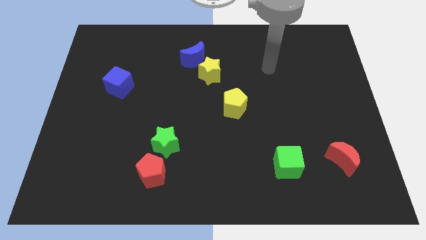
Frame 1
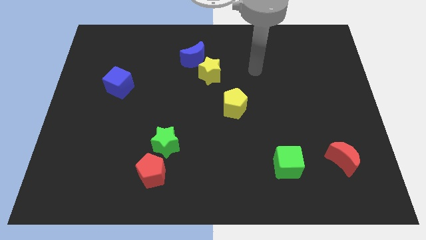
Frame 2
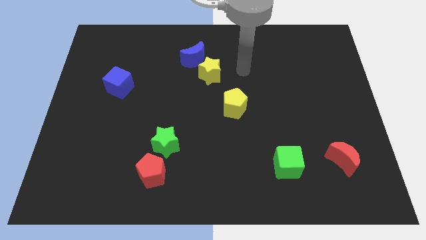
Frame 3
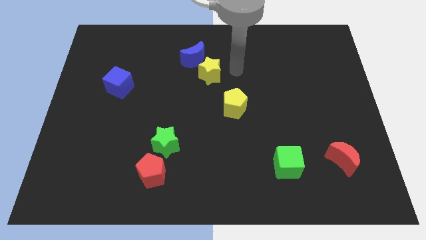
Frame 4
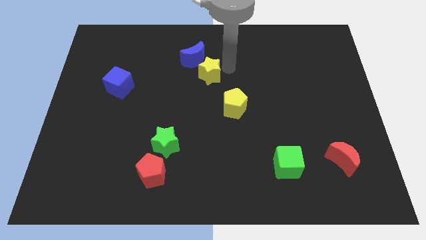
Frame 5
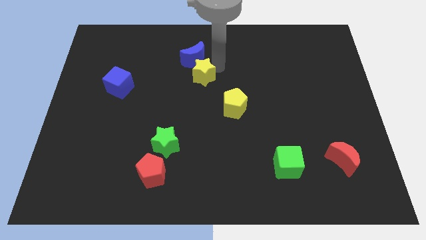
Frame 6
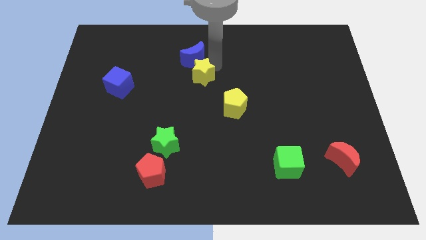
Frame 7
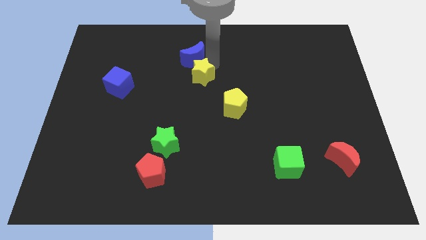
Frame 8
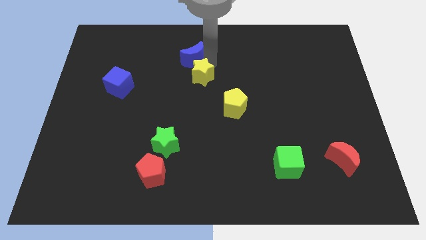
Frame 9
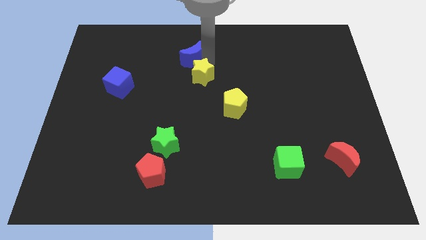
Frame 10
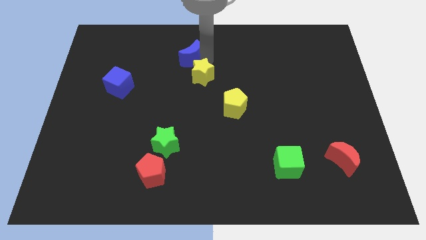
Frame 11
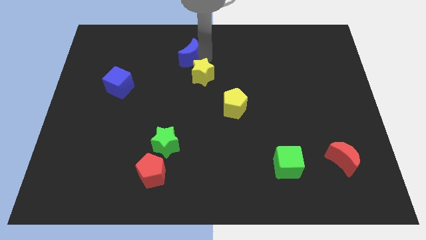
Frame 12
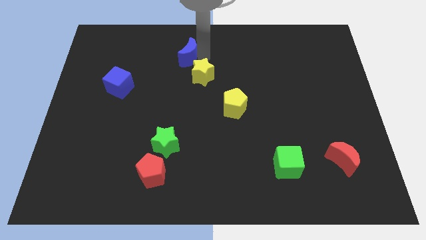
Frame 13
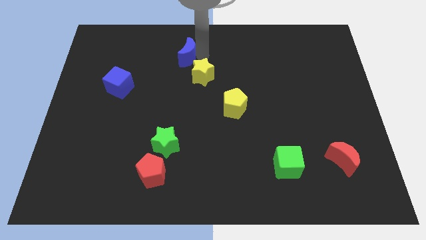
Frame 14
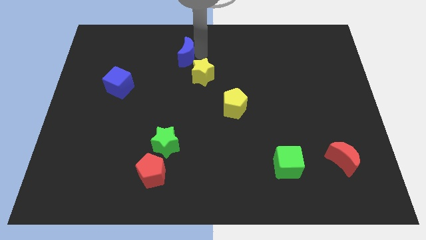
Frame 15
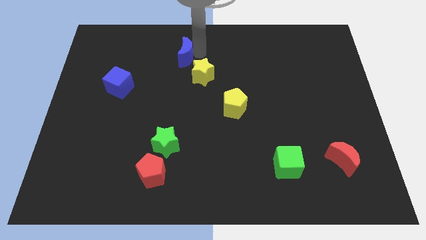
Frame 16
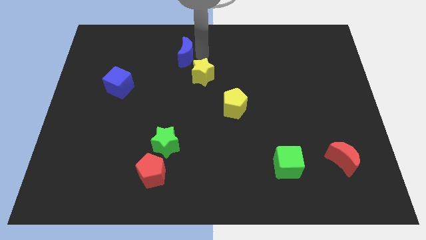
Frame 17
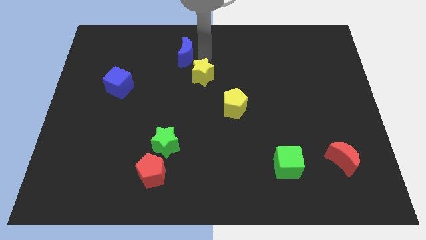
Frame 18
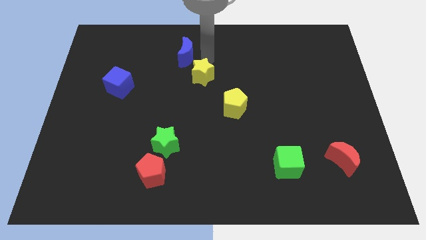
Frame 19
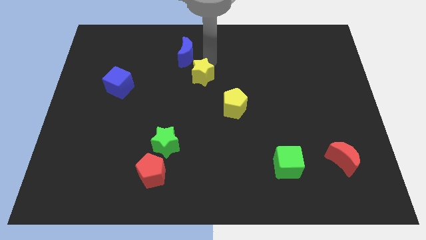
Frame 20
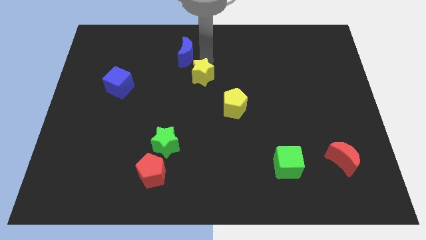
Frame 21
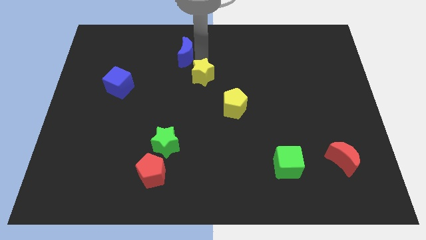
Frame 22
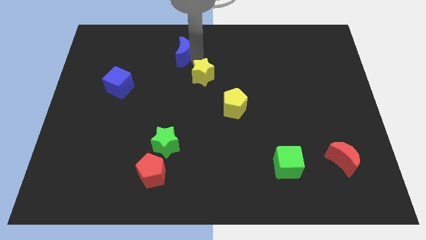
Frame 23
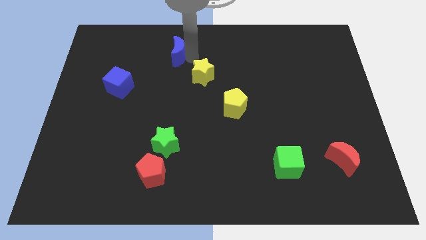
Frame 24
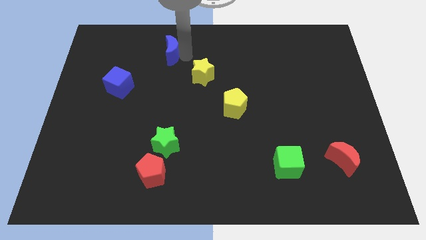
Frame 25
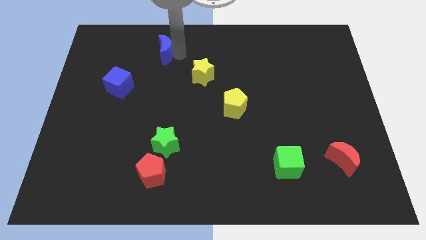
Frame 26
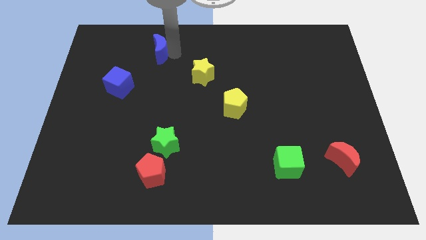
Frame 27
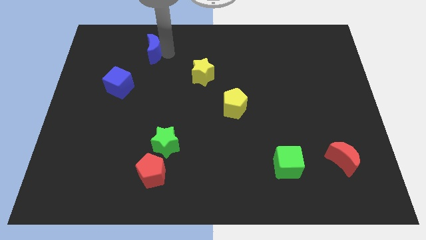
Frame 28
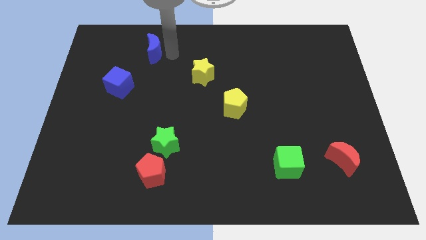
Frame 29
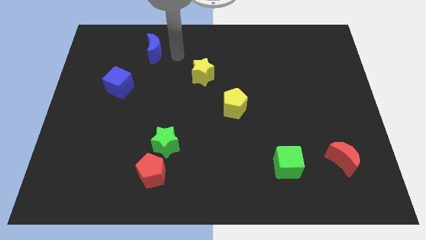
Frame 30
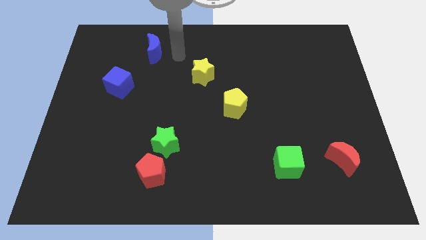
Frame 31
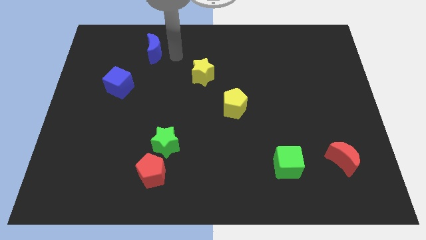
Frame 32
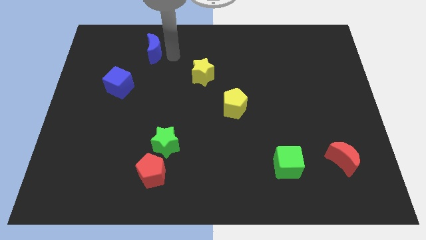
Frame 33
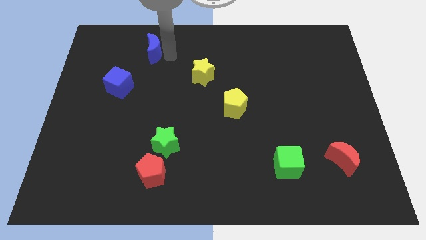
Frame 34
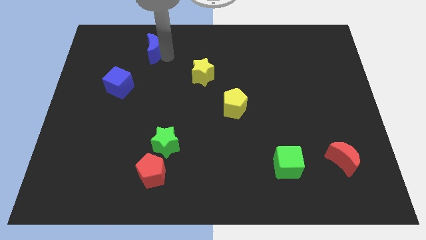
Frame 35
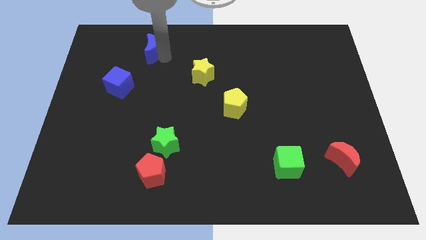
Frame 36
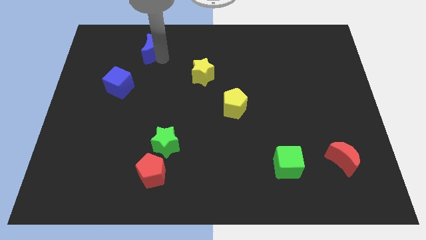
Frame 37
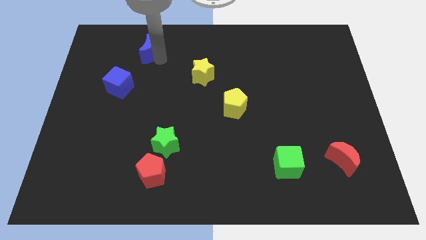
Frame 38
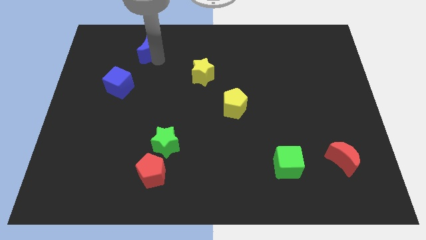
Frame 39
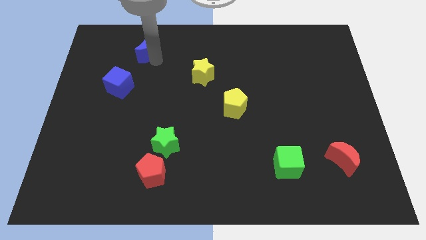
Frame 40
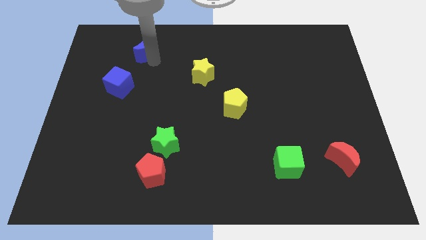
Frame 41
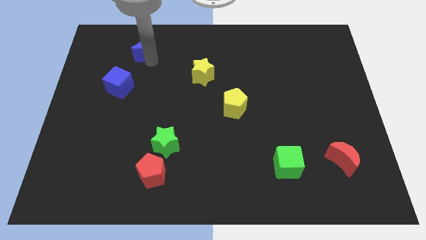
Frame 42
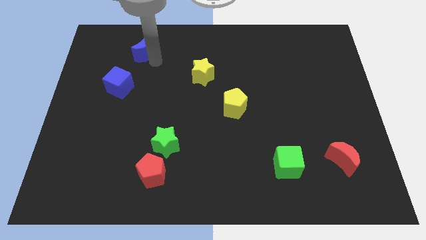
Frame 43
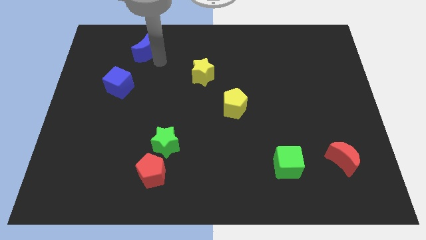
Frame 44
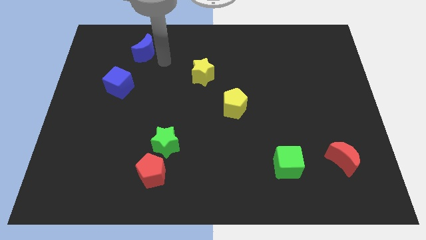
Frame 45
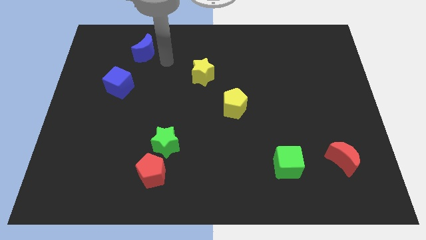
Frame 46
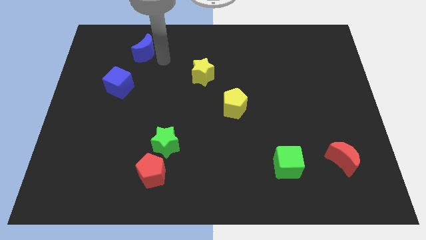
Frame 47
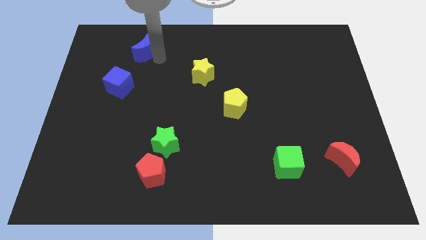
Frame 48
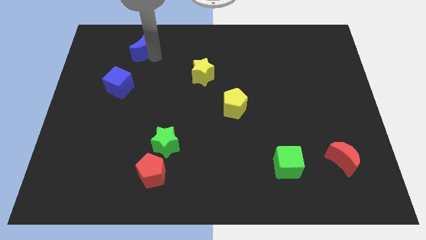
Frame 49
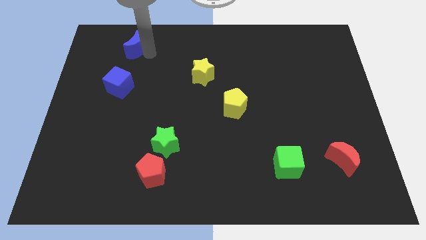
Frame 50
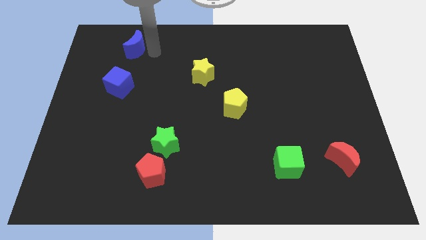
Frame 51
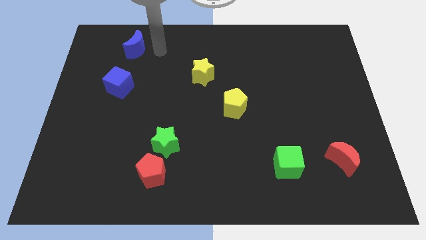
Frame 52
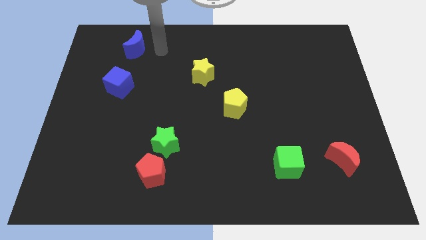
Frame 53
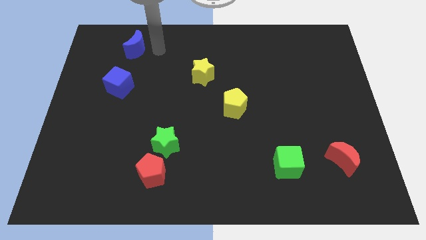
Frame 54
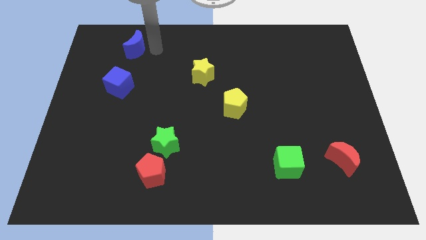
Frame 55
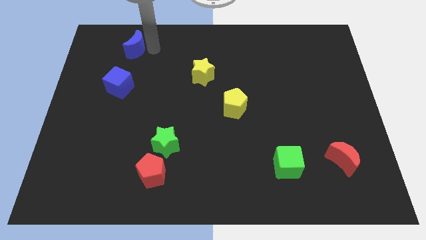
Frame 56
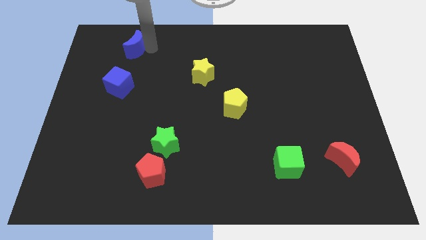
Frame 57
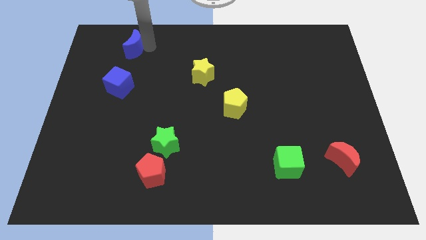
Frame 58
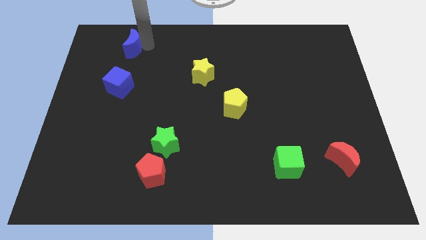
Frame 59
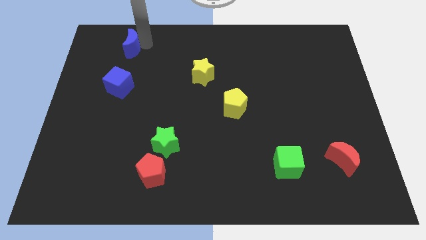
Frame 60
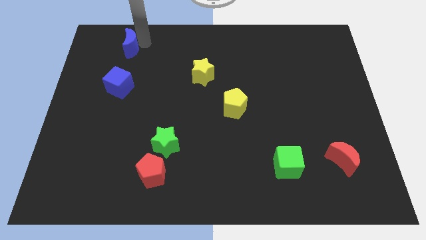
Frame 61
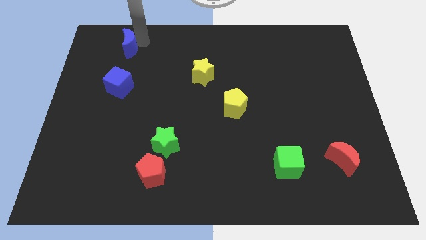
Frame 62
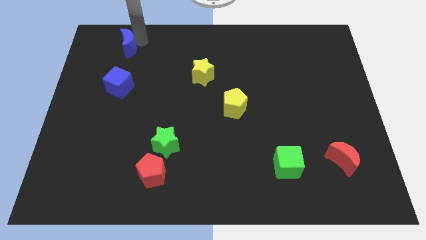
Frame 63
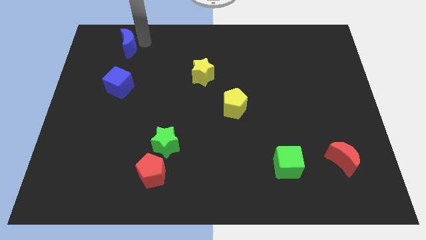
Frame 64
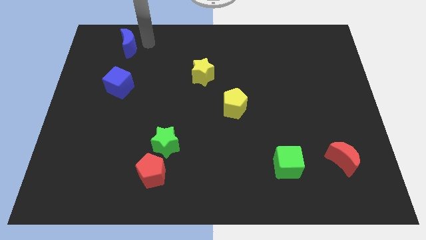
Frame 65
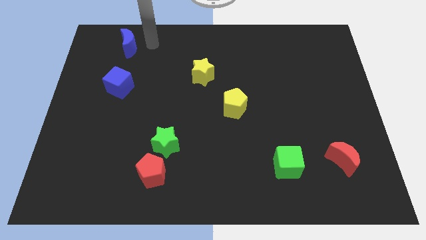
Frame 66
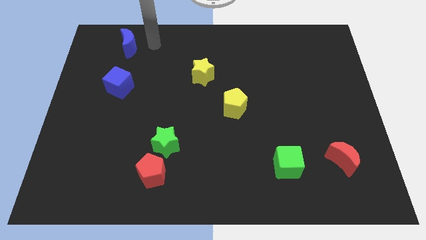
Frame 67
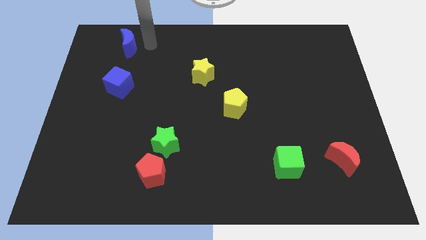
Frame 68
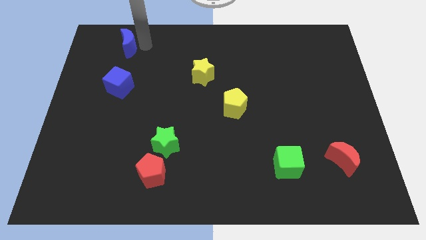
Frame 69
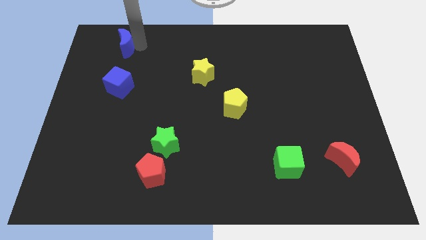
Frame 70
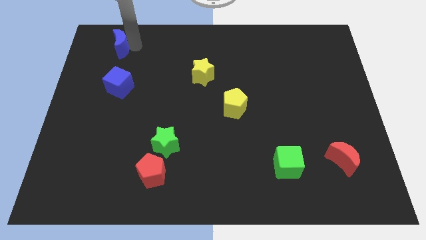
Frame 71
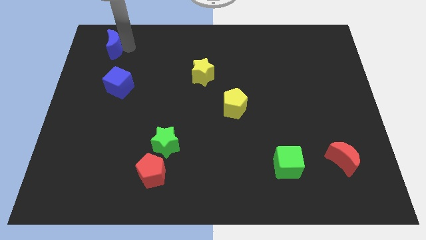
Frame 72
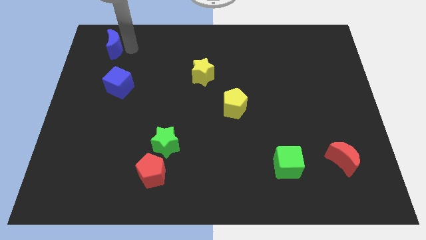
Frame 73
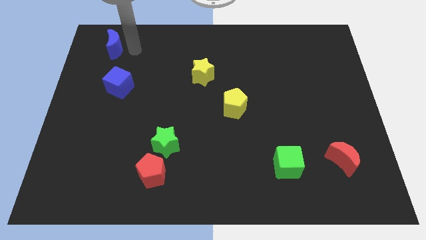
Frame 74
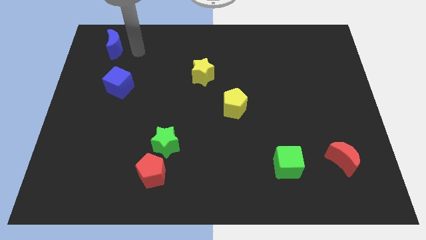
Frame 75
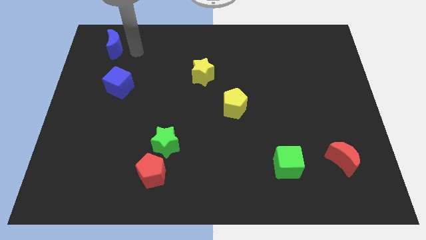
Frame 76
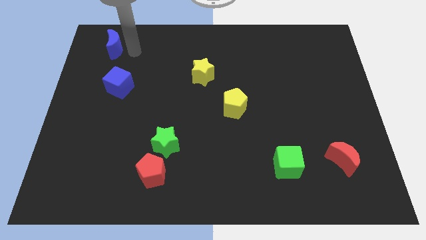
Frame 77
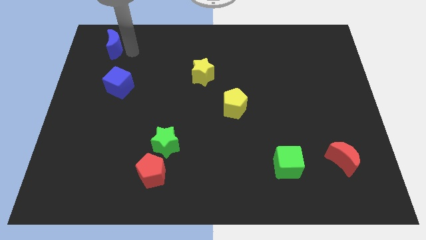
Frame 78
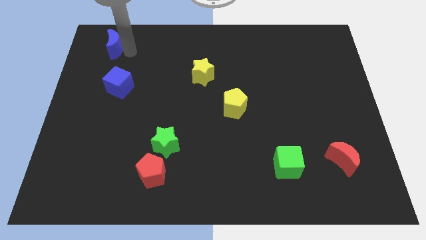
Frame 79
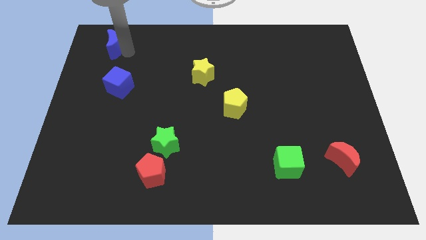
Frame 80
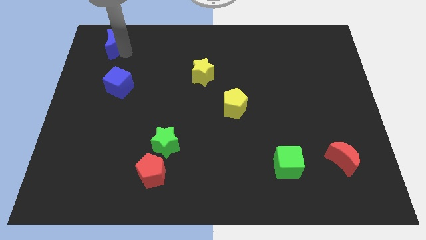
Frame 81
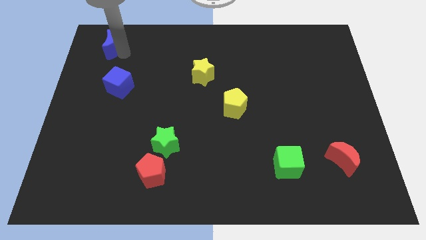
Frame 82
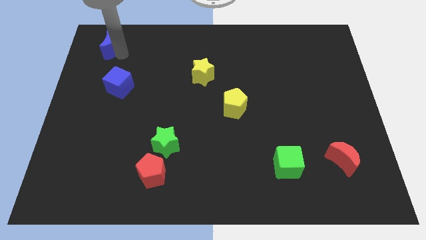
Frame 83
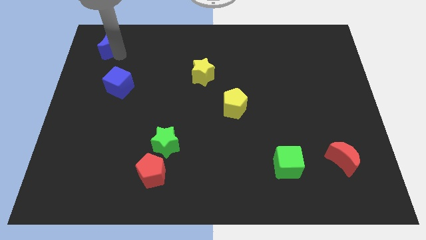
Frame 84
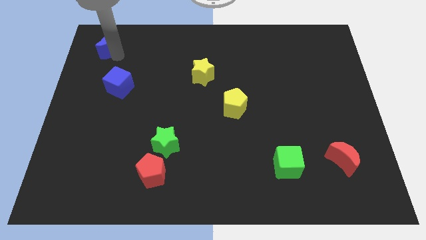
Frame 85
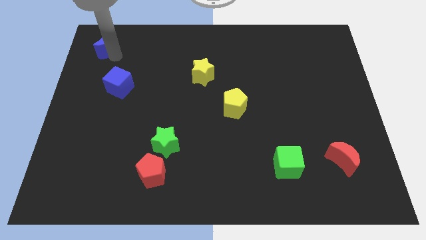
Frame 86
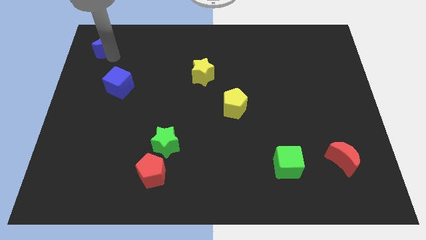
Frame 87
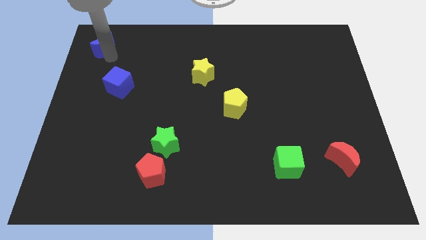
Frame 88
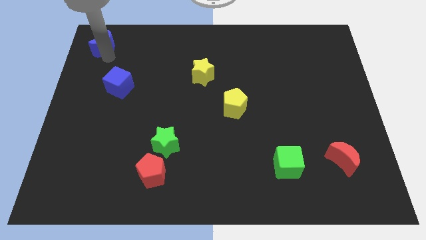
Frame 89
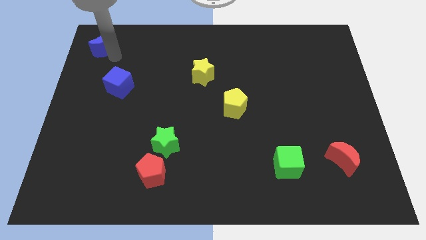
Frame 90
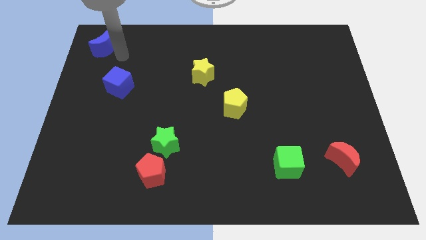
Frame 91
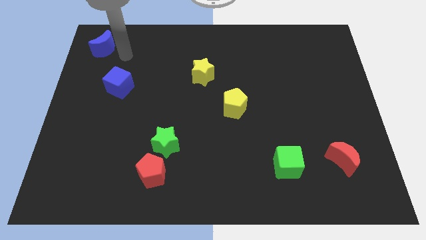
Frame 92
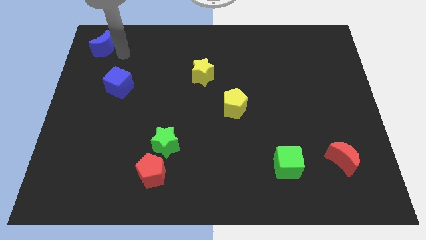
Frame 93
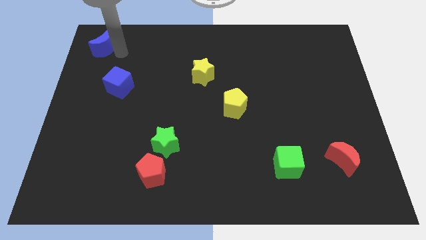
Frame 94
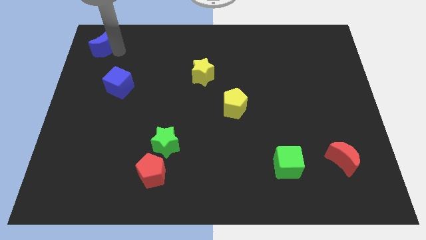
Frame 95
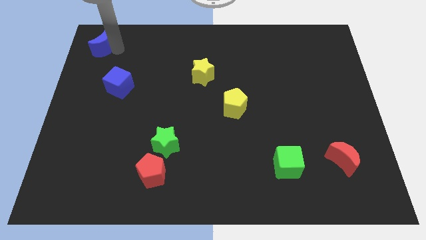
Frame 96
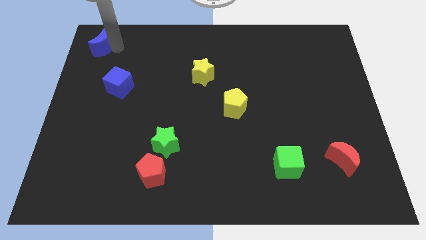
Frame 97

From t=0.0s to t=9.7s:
push the blue moon to the upper left corner
